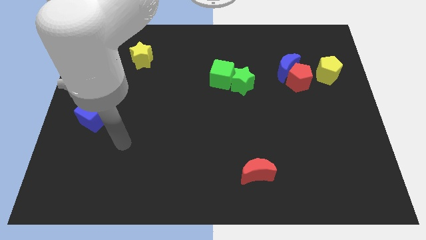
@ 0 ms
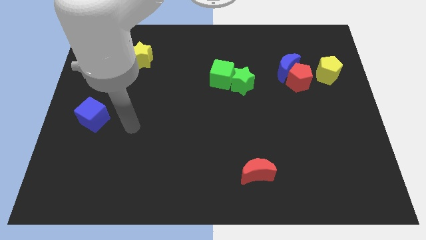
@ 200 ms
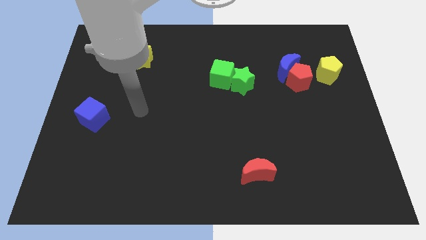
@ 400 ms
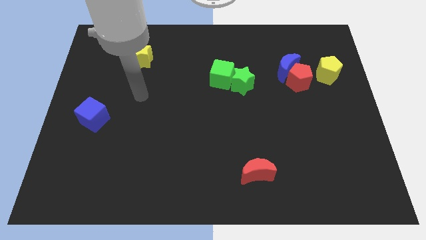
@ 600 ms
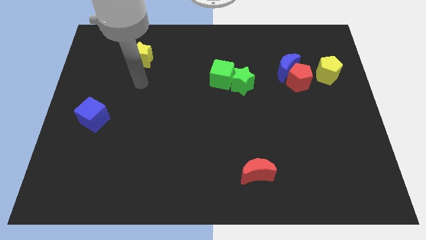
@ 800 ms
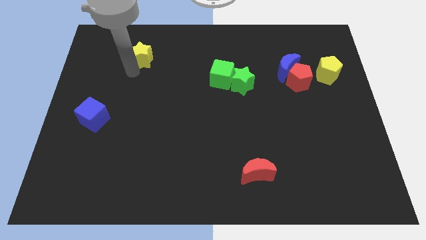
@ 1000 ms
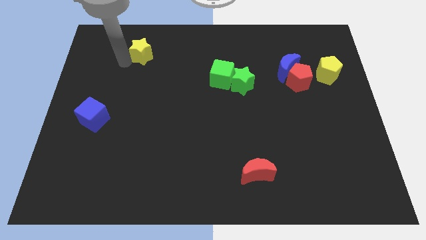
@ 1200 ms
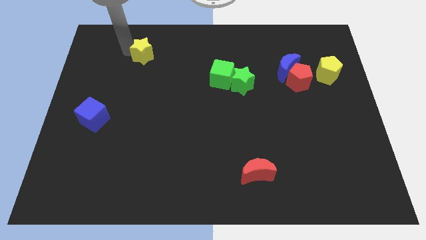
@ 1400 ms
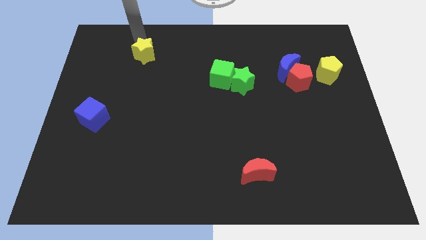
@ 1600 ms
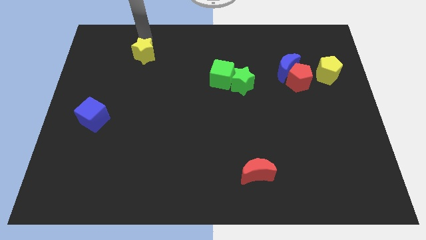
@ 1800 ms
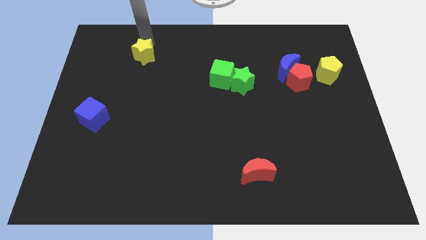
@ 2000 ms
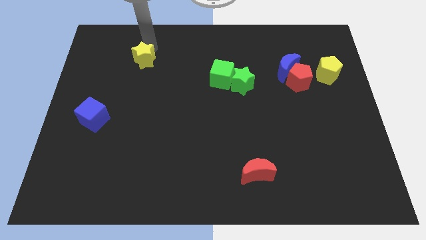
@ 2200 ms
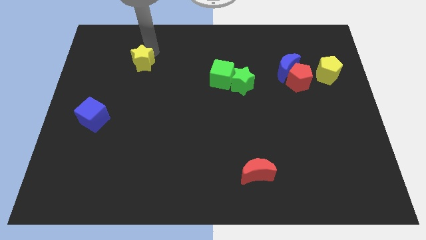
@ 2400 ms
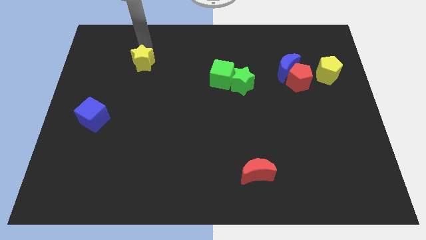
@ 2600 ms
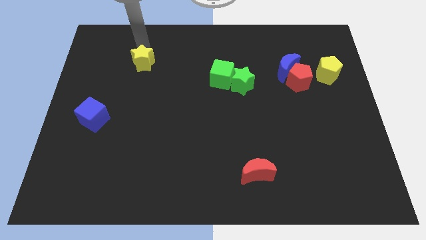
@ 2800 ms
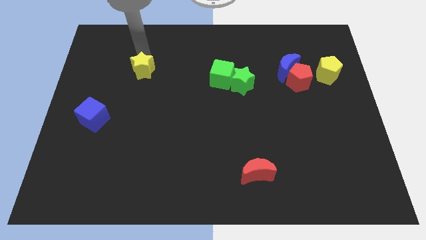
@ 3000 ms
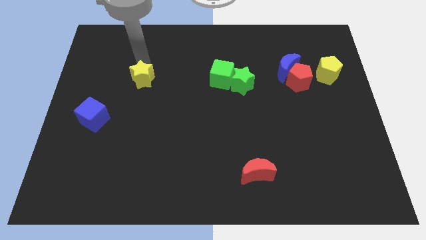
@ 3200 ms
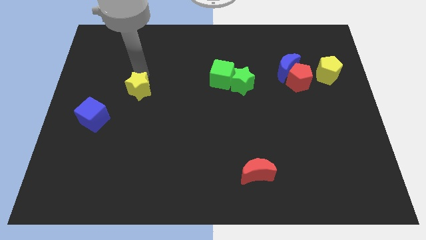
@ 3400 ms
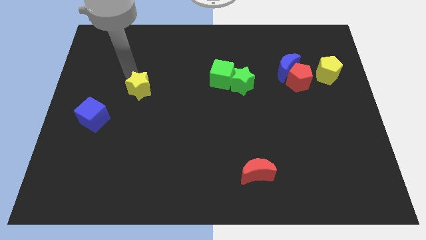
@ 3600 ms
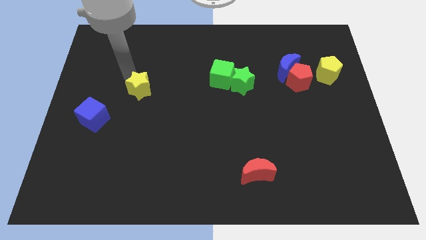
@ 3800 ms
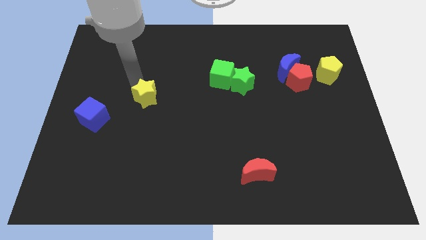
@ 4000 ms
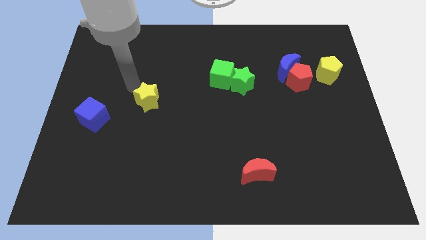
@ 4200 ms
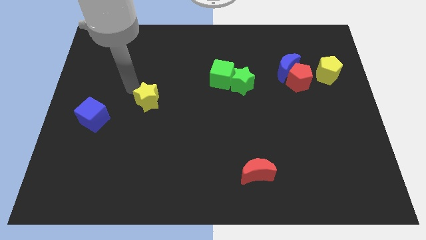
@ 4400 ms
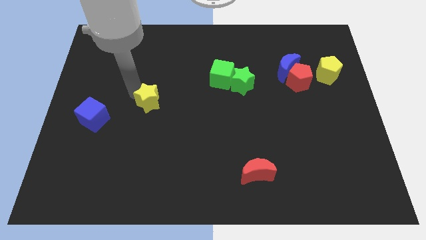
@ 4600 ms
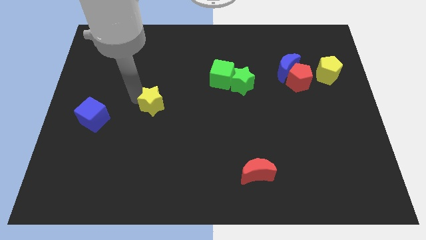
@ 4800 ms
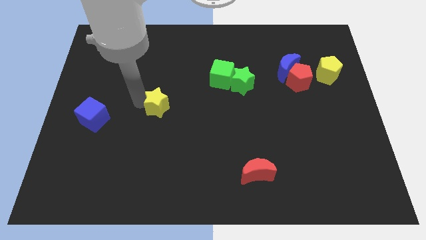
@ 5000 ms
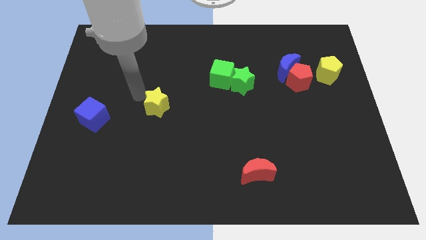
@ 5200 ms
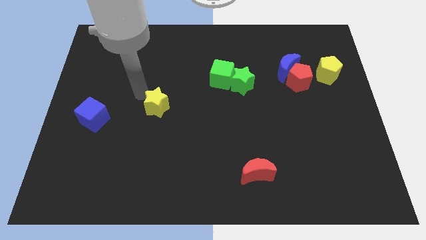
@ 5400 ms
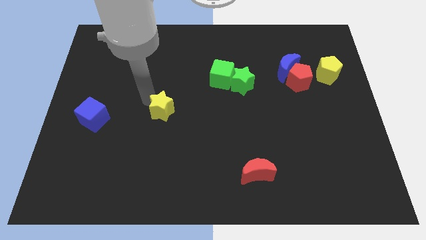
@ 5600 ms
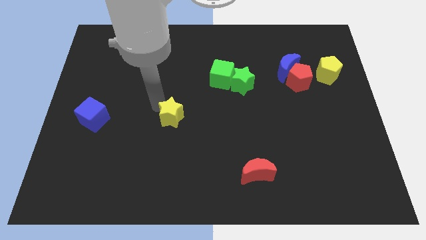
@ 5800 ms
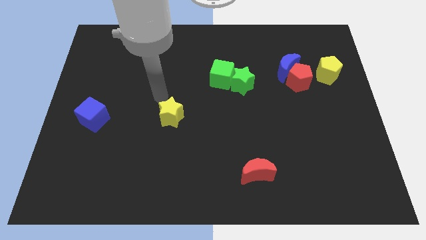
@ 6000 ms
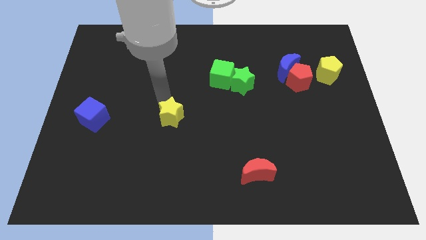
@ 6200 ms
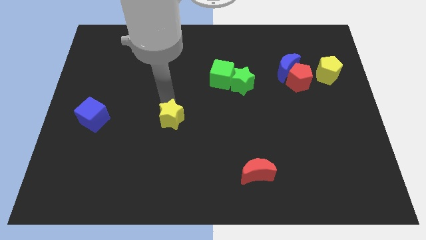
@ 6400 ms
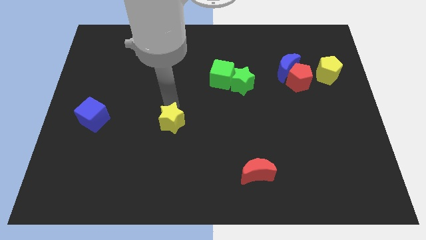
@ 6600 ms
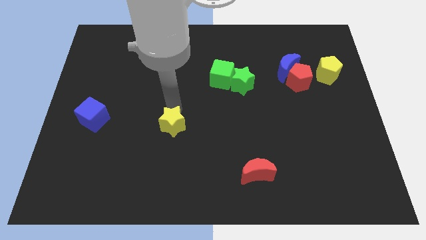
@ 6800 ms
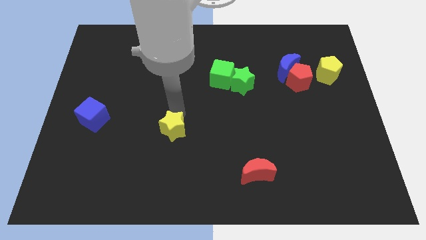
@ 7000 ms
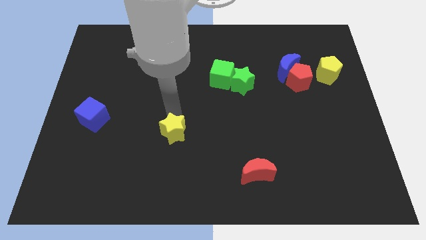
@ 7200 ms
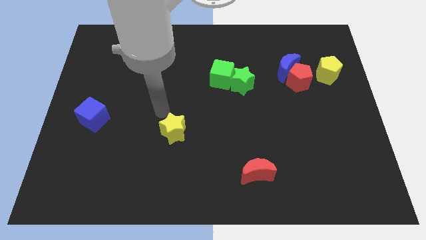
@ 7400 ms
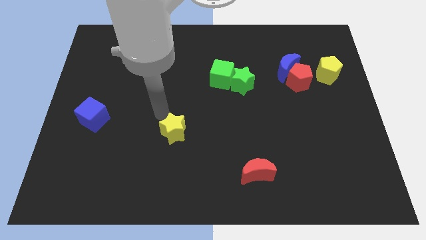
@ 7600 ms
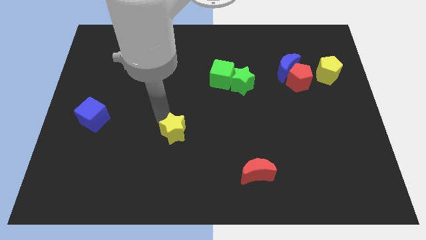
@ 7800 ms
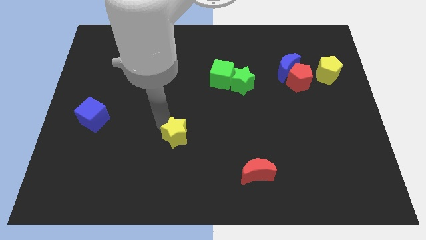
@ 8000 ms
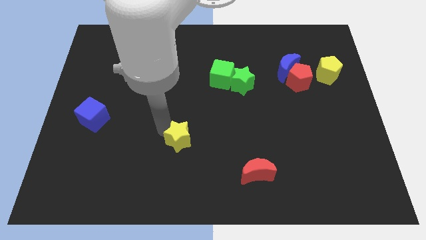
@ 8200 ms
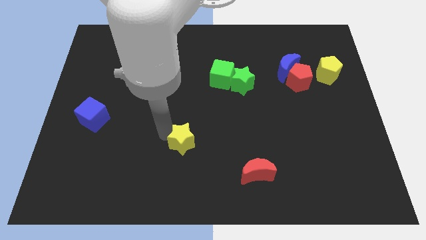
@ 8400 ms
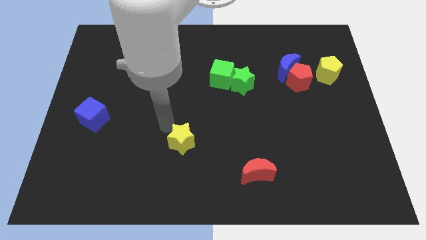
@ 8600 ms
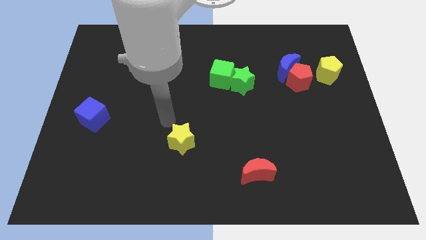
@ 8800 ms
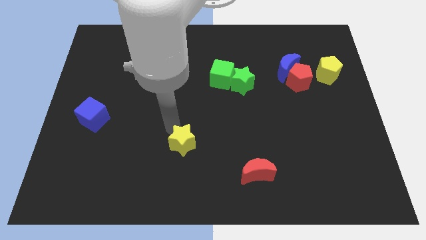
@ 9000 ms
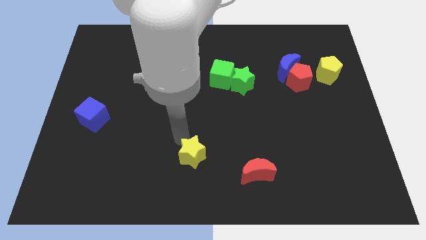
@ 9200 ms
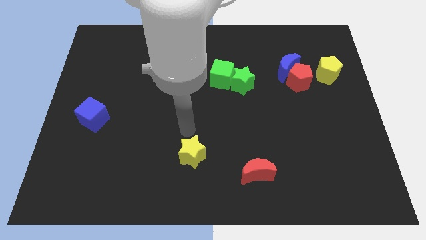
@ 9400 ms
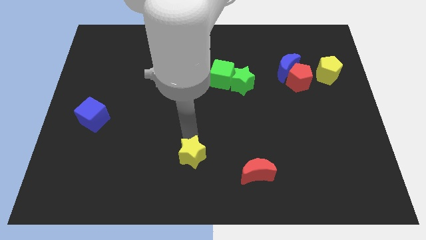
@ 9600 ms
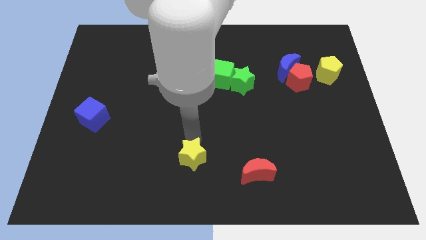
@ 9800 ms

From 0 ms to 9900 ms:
put the yellow star to the bottom

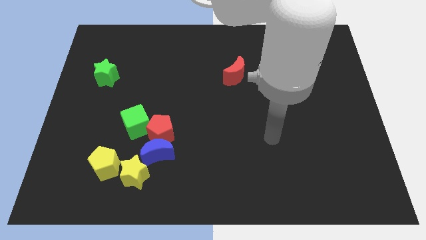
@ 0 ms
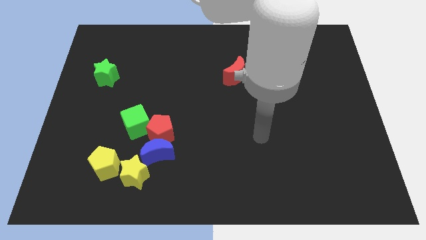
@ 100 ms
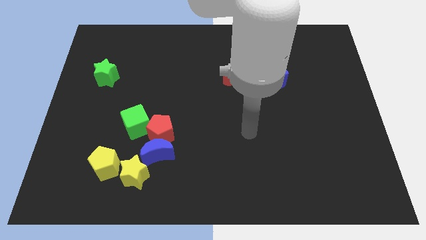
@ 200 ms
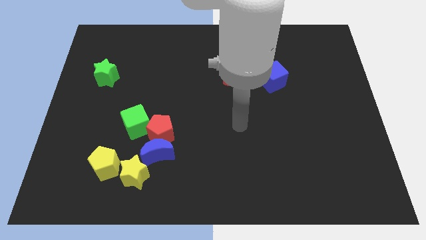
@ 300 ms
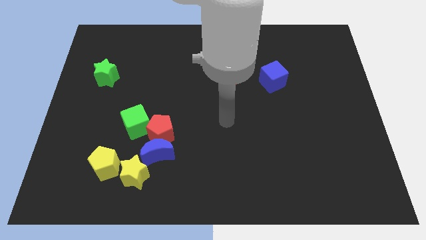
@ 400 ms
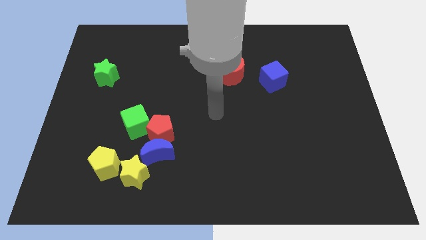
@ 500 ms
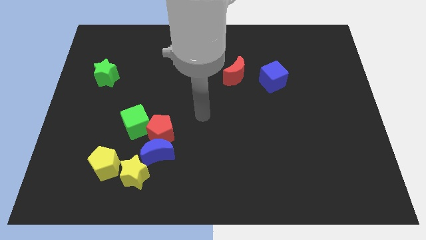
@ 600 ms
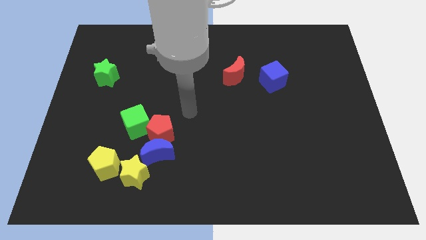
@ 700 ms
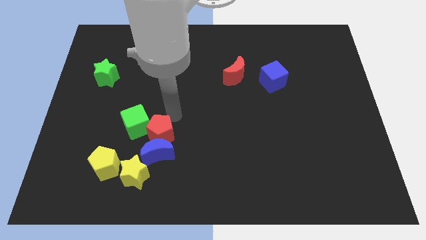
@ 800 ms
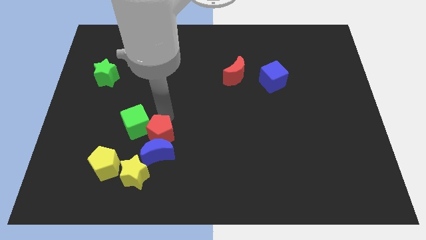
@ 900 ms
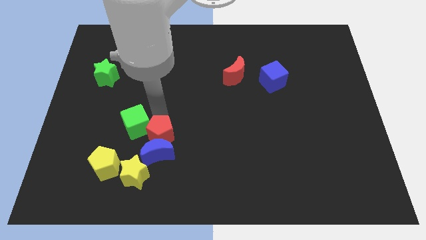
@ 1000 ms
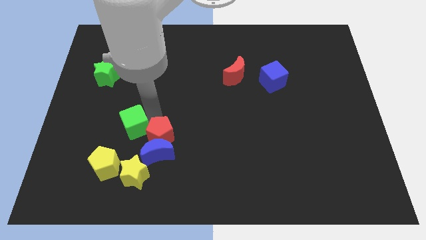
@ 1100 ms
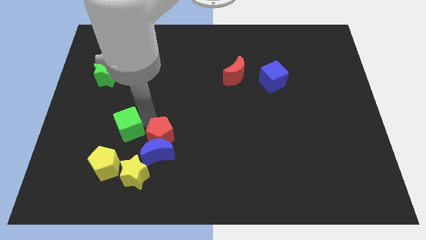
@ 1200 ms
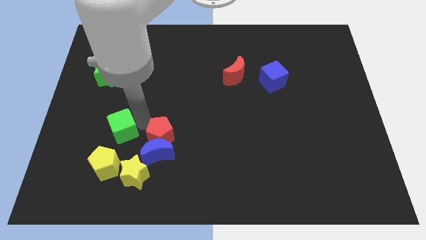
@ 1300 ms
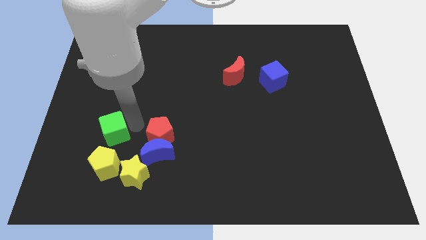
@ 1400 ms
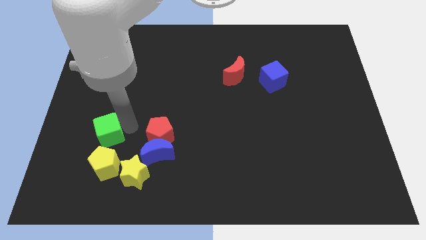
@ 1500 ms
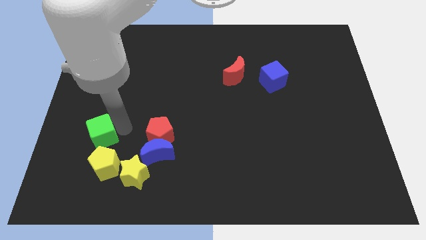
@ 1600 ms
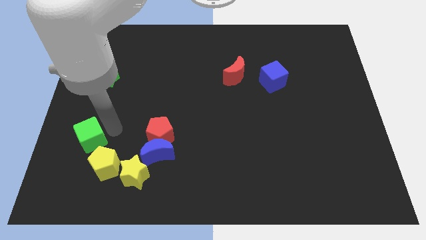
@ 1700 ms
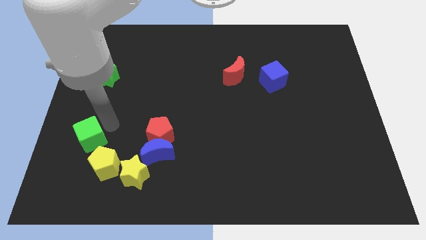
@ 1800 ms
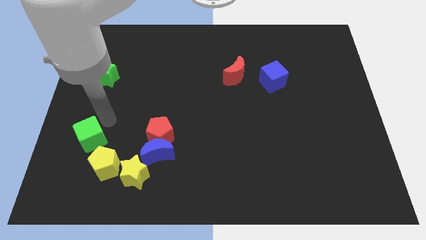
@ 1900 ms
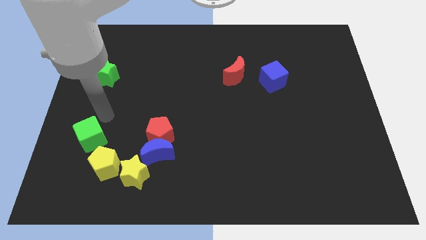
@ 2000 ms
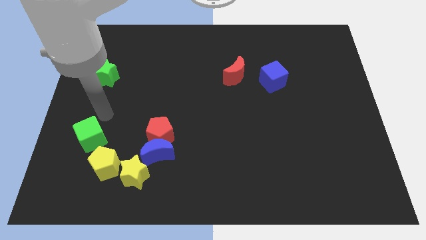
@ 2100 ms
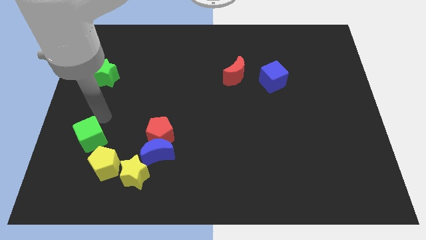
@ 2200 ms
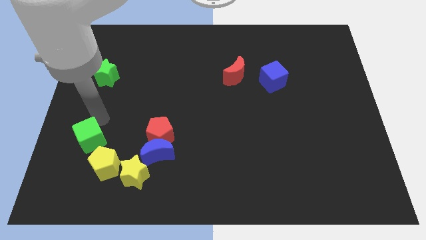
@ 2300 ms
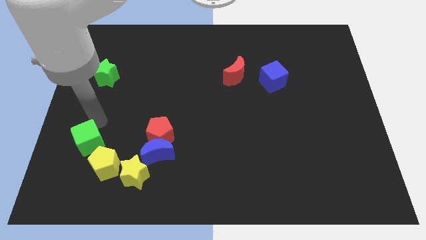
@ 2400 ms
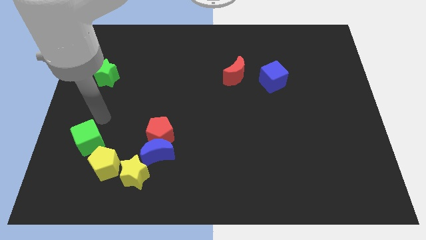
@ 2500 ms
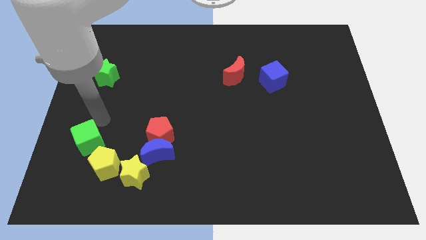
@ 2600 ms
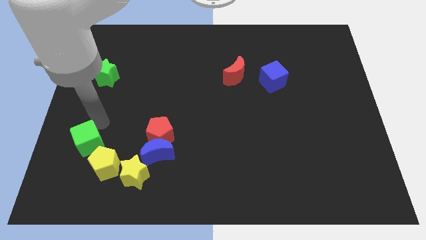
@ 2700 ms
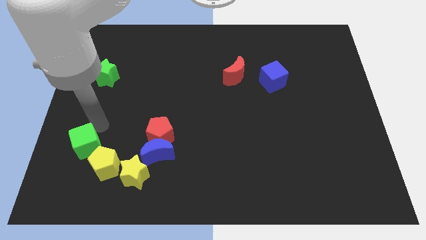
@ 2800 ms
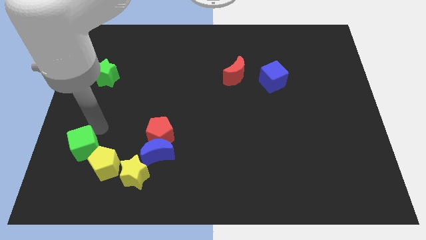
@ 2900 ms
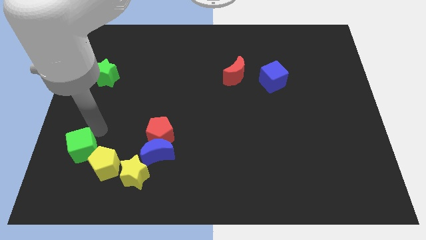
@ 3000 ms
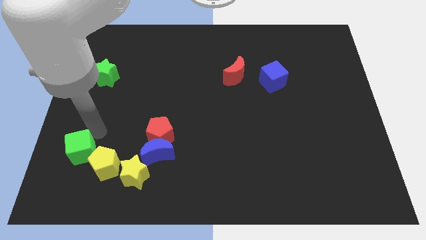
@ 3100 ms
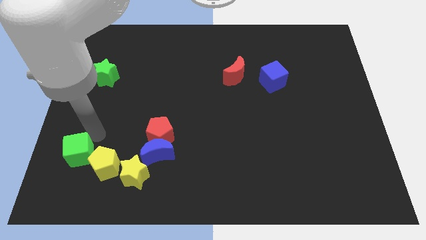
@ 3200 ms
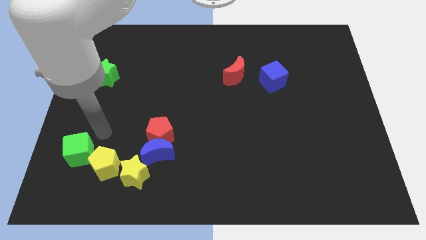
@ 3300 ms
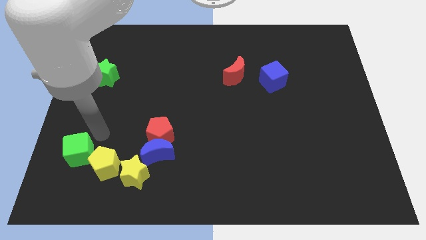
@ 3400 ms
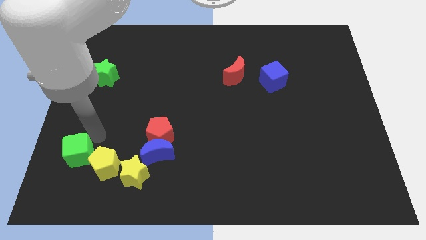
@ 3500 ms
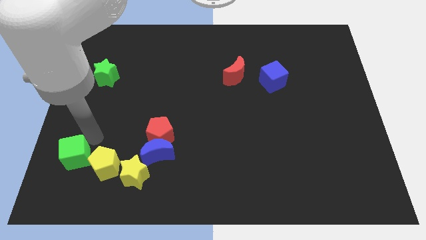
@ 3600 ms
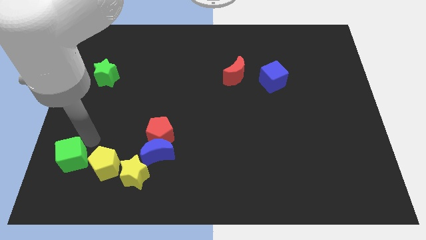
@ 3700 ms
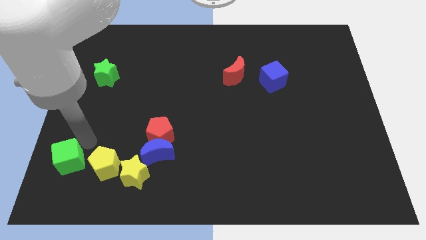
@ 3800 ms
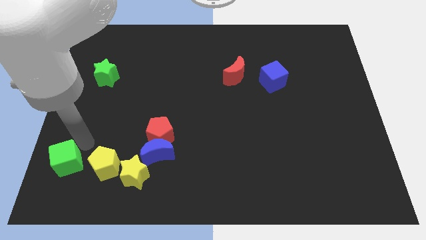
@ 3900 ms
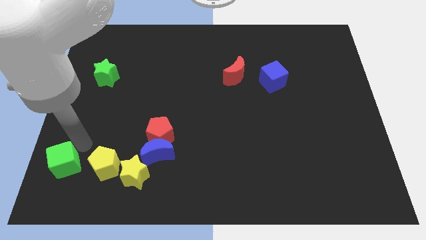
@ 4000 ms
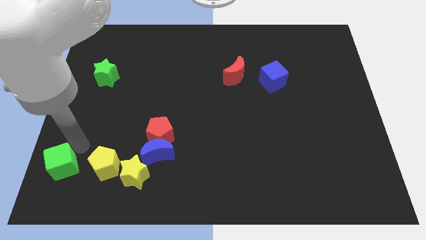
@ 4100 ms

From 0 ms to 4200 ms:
slide the green cube to the bottom left of the board
